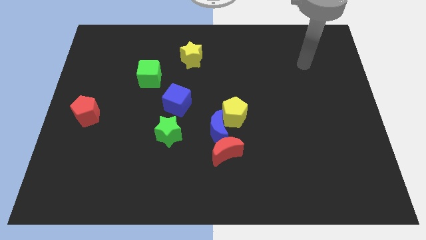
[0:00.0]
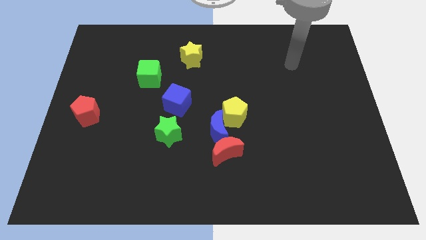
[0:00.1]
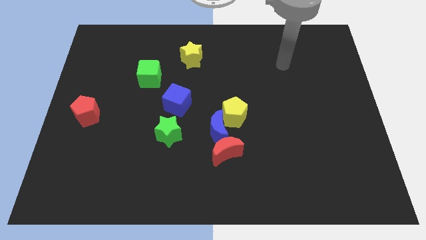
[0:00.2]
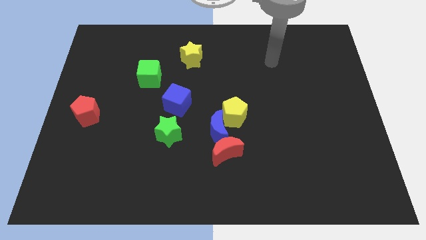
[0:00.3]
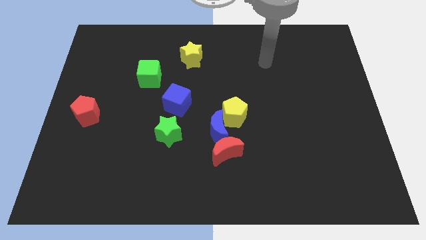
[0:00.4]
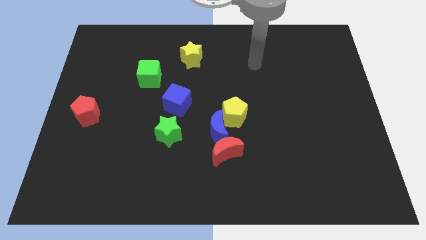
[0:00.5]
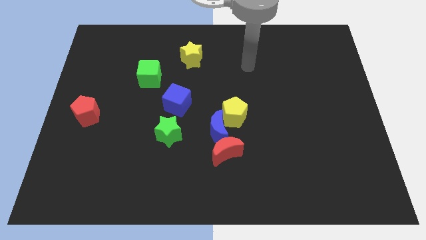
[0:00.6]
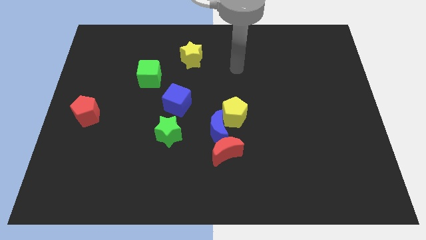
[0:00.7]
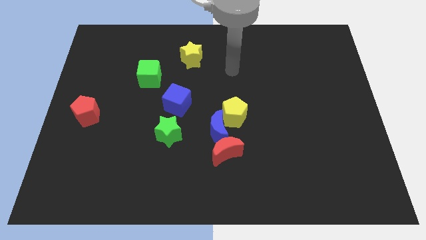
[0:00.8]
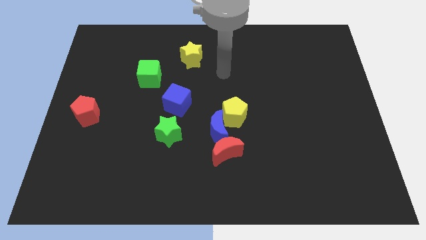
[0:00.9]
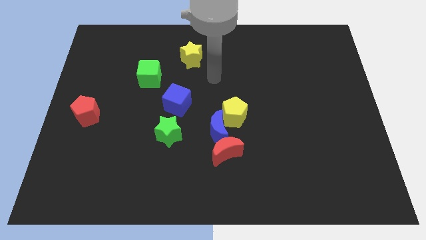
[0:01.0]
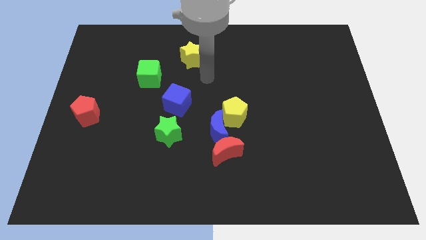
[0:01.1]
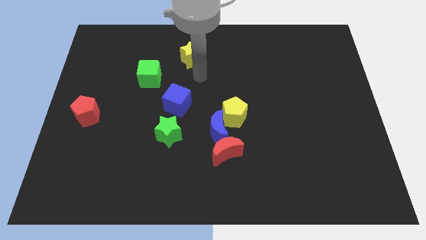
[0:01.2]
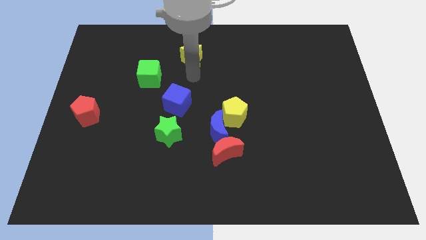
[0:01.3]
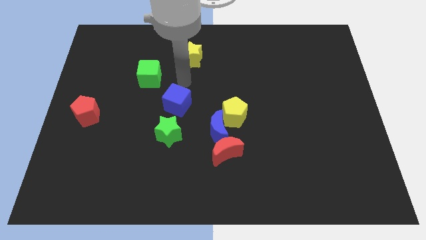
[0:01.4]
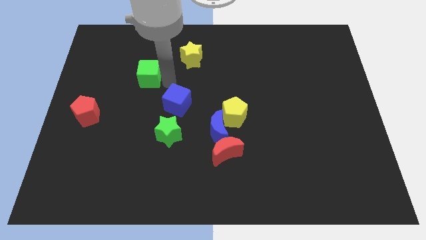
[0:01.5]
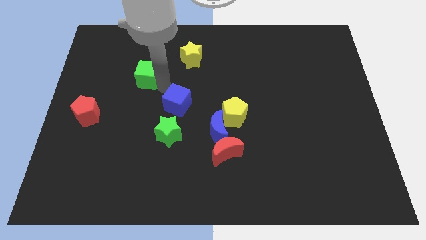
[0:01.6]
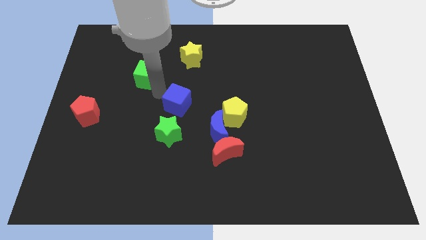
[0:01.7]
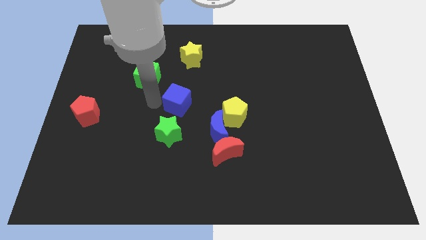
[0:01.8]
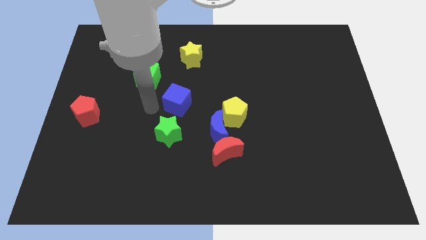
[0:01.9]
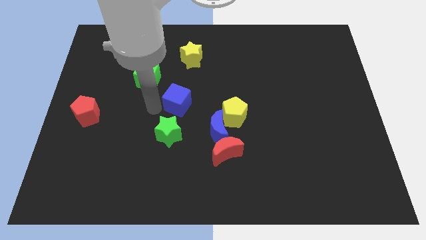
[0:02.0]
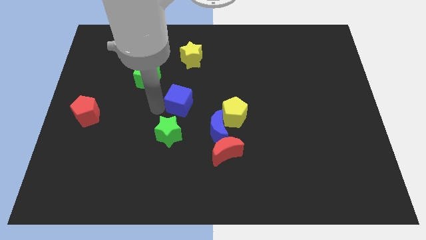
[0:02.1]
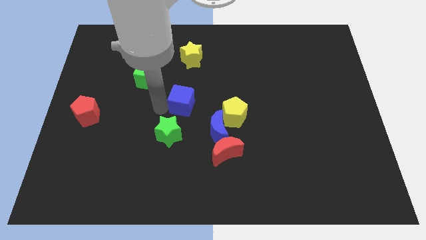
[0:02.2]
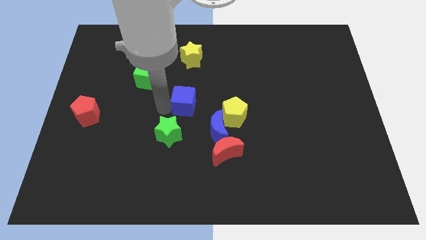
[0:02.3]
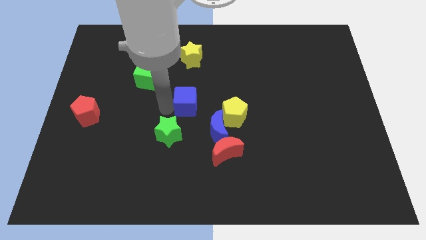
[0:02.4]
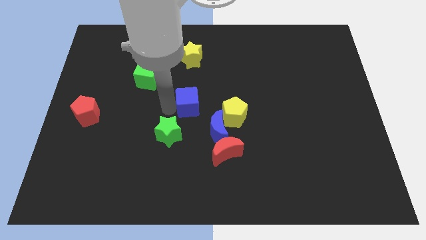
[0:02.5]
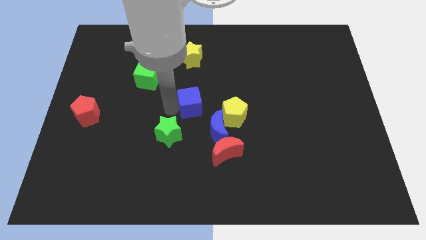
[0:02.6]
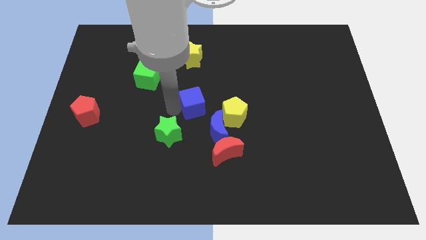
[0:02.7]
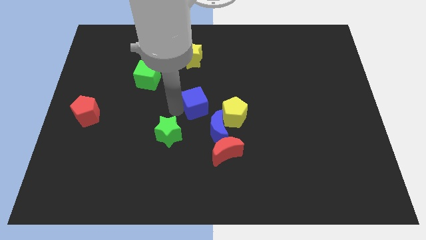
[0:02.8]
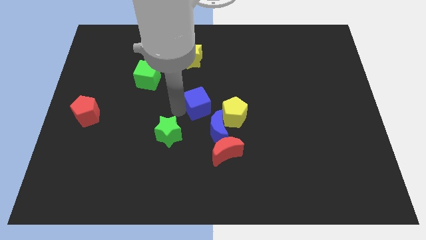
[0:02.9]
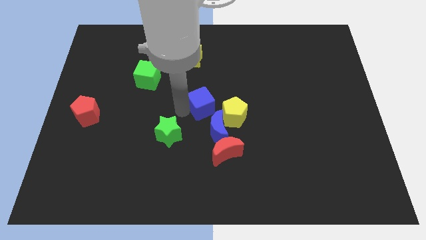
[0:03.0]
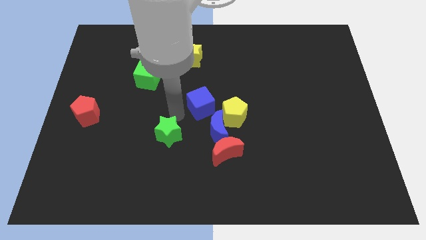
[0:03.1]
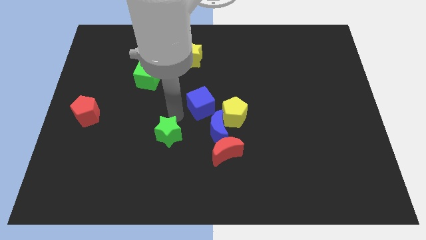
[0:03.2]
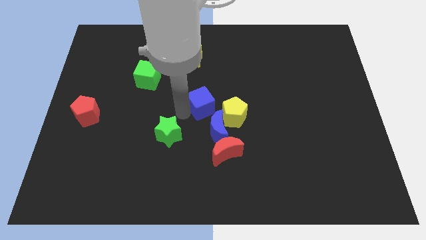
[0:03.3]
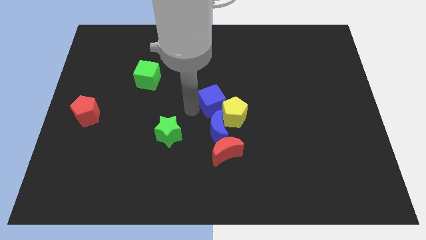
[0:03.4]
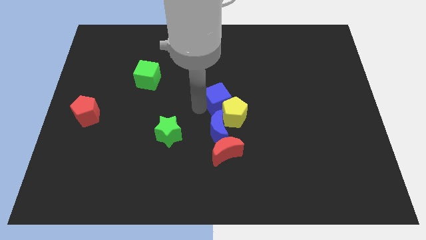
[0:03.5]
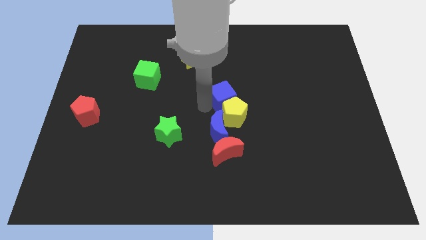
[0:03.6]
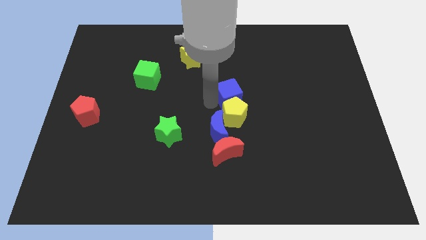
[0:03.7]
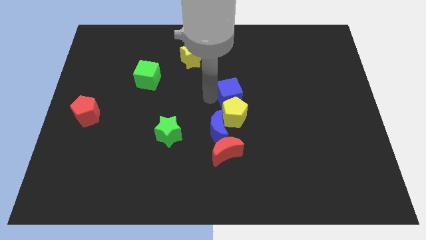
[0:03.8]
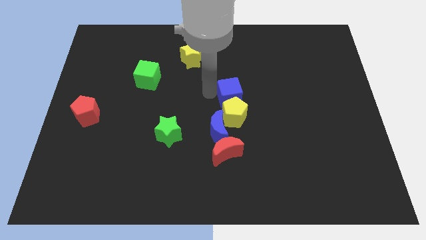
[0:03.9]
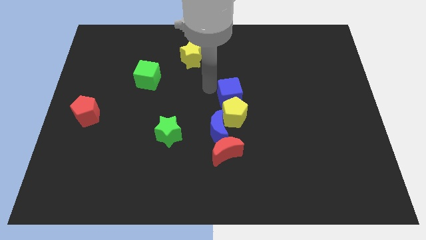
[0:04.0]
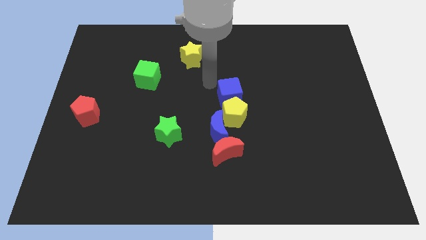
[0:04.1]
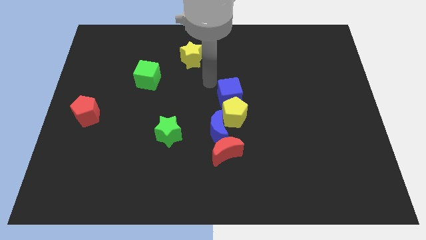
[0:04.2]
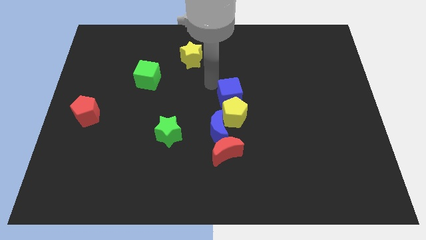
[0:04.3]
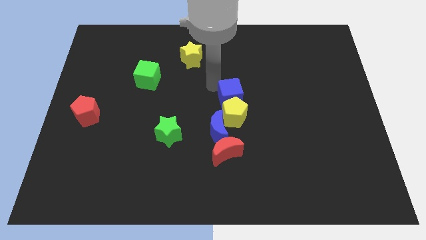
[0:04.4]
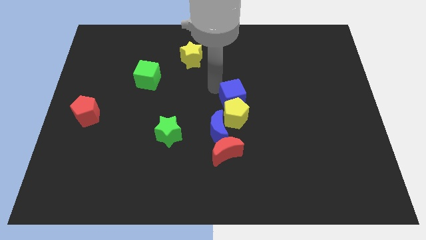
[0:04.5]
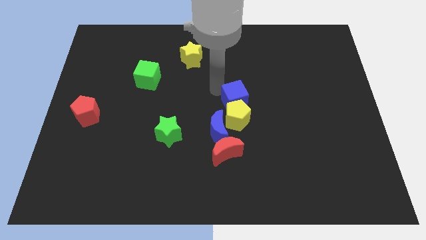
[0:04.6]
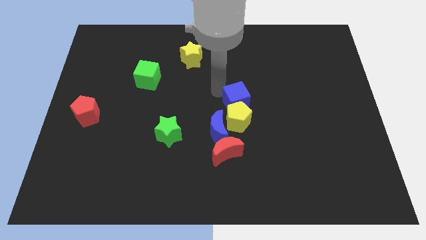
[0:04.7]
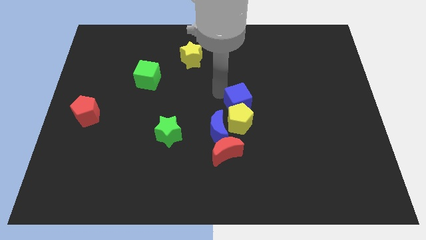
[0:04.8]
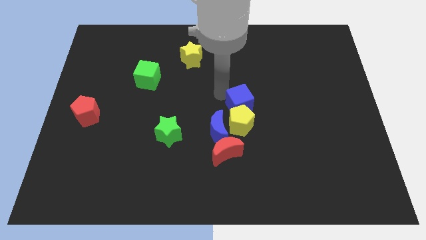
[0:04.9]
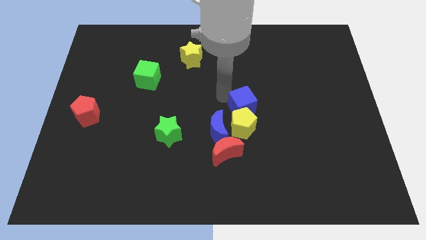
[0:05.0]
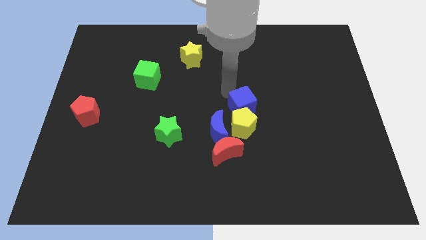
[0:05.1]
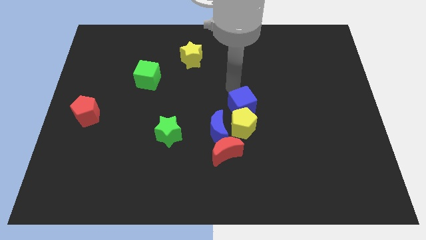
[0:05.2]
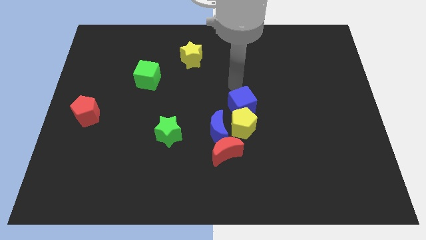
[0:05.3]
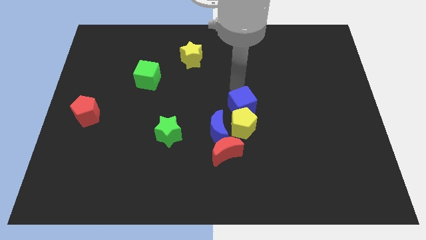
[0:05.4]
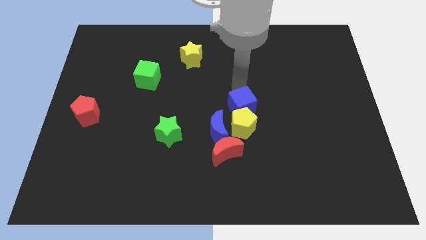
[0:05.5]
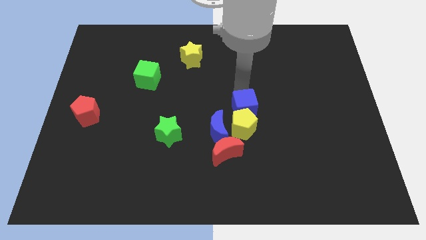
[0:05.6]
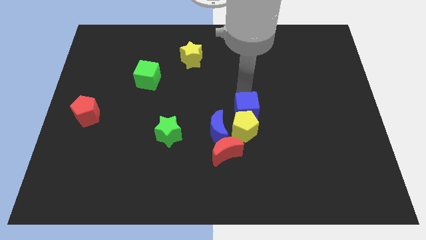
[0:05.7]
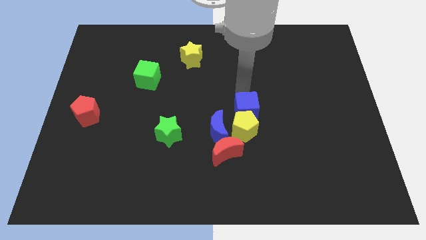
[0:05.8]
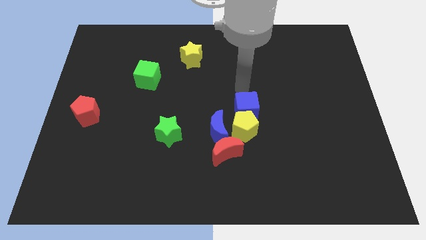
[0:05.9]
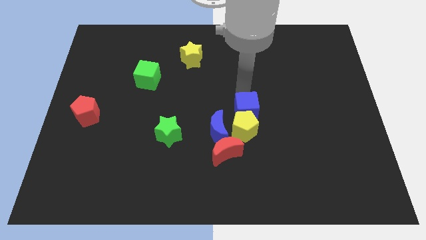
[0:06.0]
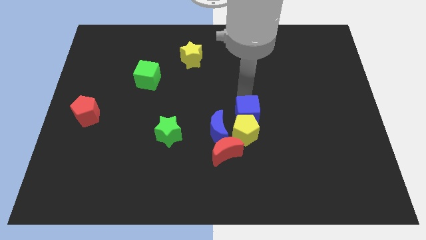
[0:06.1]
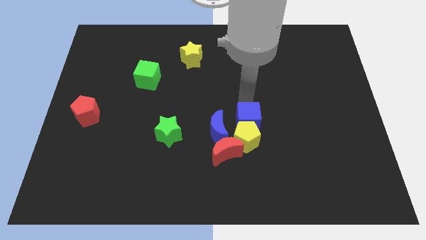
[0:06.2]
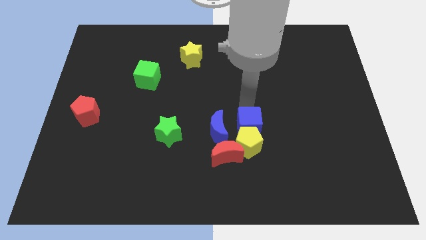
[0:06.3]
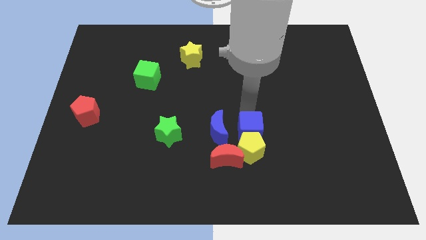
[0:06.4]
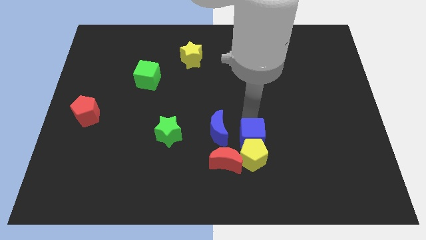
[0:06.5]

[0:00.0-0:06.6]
slide the blue cube diagonally down and to the right of the blue moon
